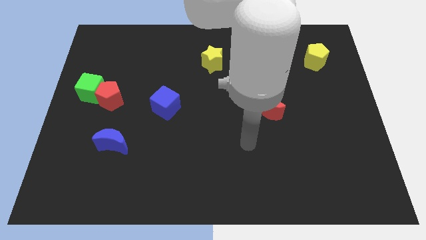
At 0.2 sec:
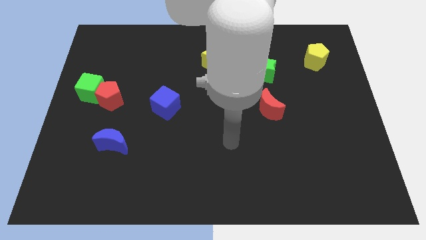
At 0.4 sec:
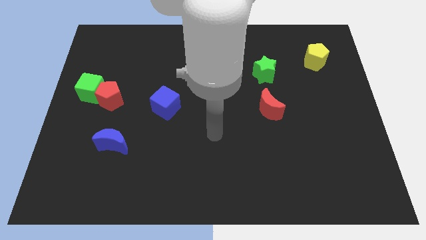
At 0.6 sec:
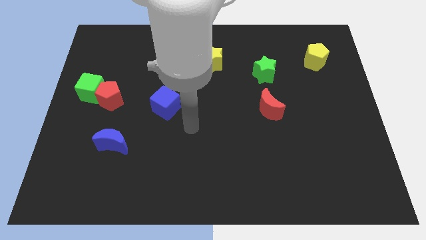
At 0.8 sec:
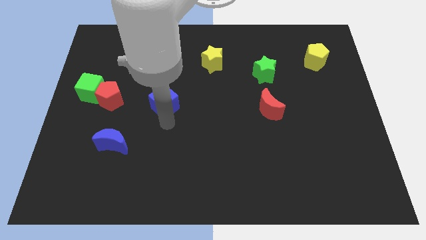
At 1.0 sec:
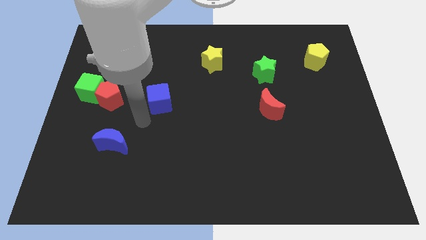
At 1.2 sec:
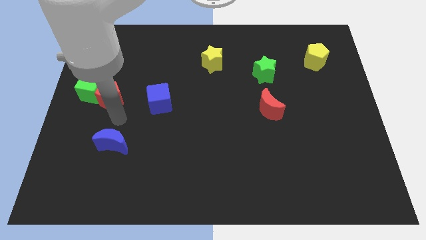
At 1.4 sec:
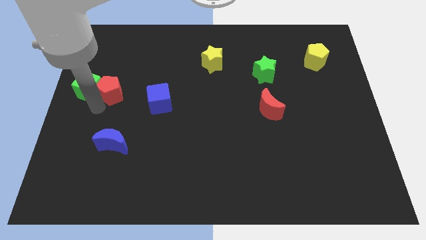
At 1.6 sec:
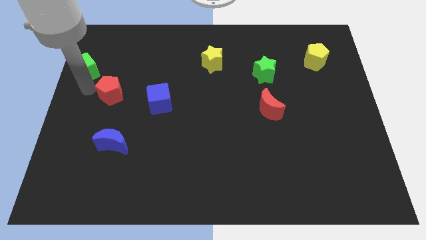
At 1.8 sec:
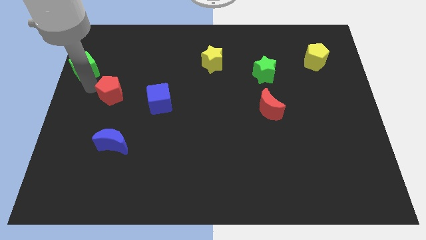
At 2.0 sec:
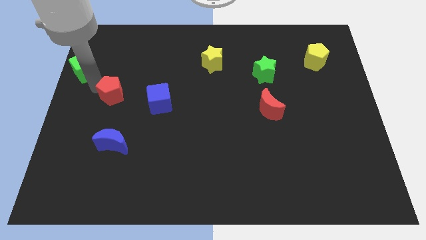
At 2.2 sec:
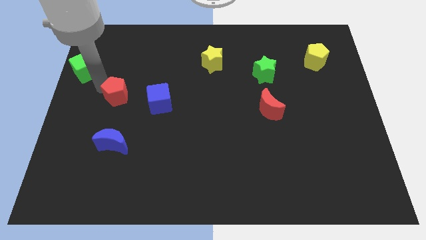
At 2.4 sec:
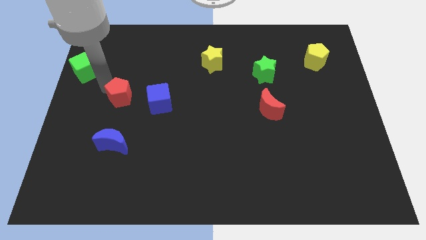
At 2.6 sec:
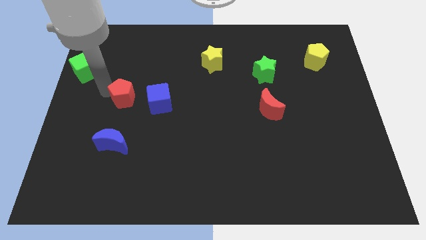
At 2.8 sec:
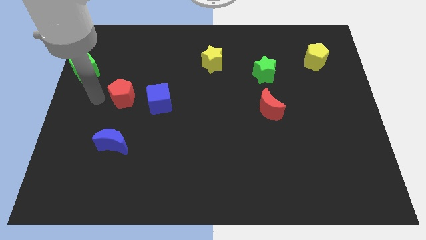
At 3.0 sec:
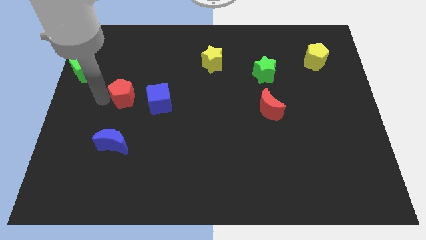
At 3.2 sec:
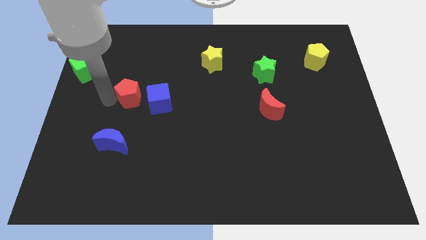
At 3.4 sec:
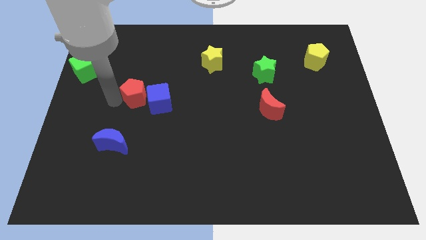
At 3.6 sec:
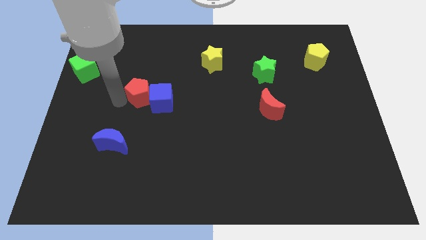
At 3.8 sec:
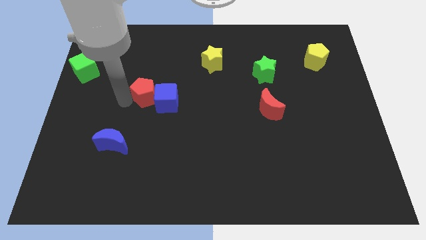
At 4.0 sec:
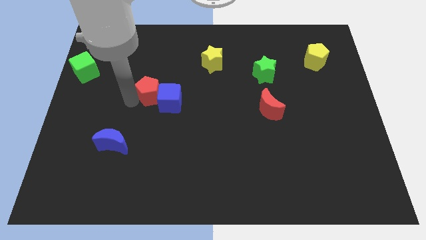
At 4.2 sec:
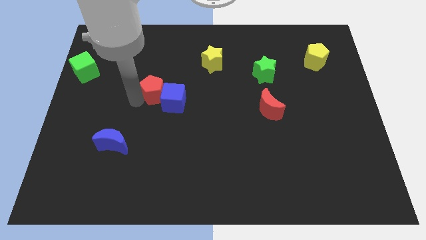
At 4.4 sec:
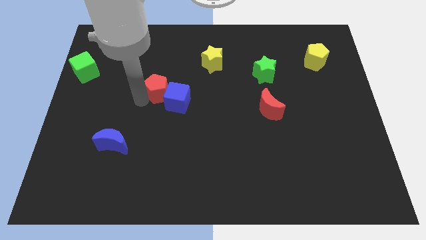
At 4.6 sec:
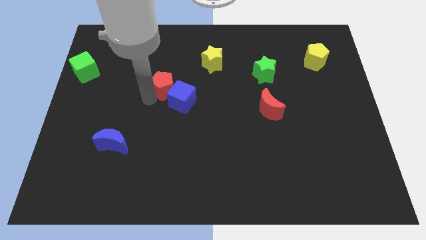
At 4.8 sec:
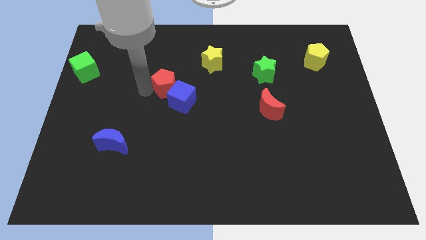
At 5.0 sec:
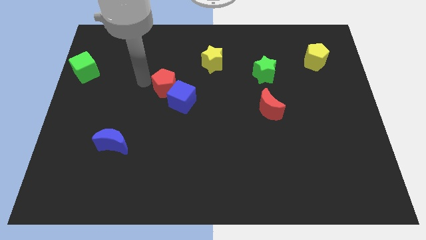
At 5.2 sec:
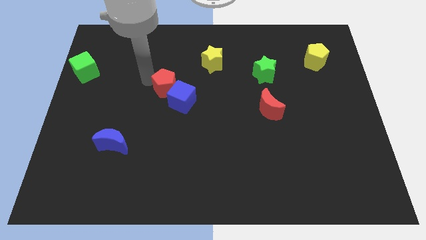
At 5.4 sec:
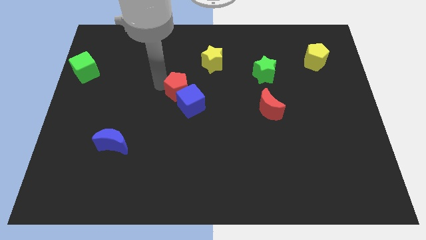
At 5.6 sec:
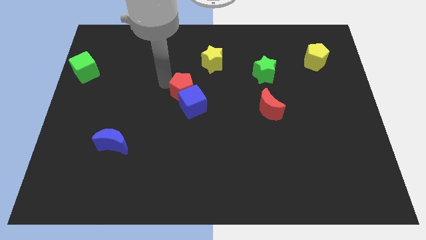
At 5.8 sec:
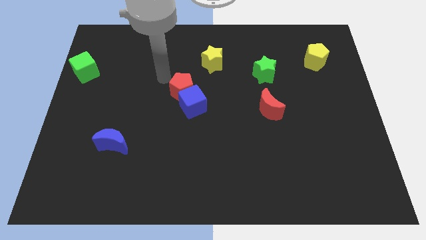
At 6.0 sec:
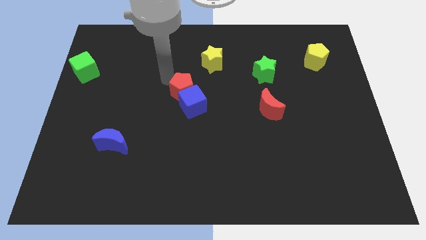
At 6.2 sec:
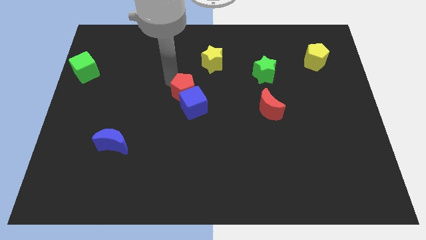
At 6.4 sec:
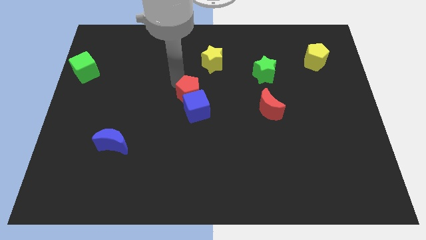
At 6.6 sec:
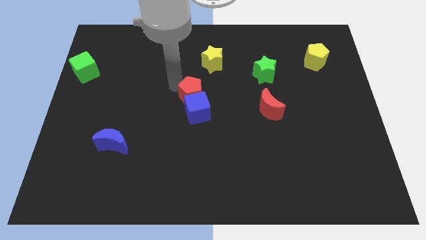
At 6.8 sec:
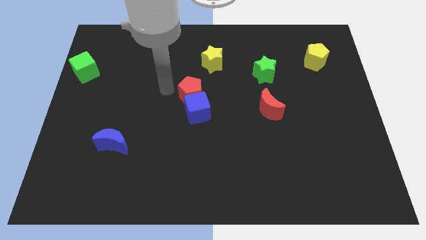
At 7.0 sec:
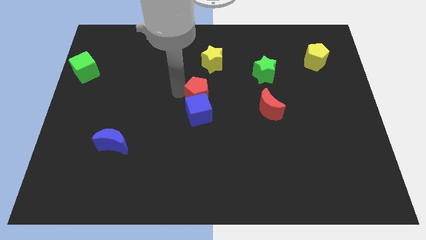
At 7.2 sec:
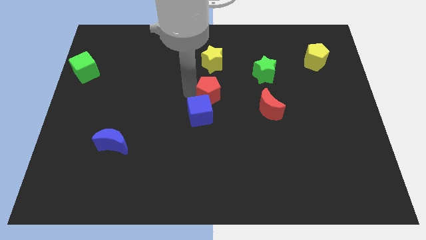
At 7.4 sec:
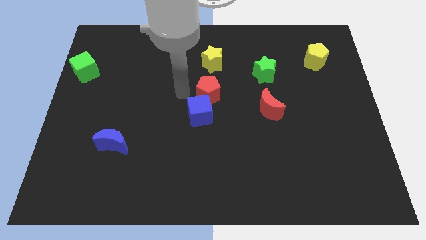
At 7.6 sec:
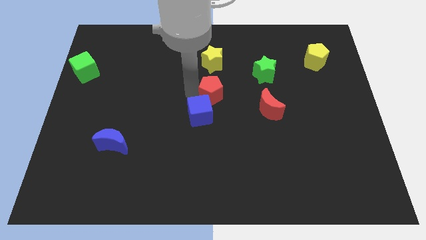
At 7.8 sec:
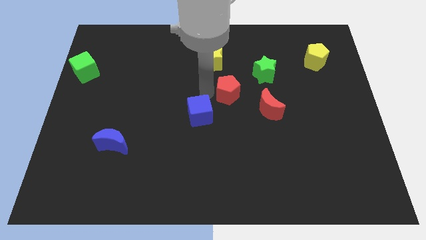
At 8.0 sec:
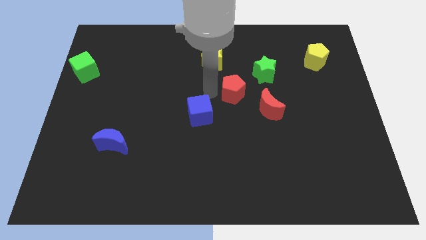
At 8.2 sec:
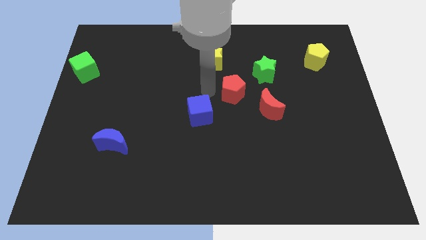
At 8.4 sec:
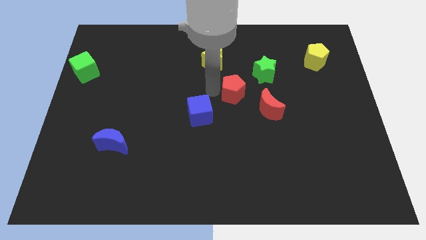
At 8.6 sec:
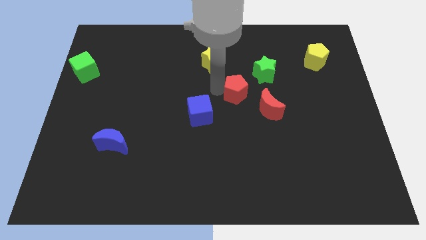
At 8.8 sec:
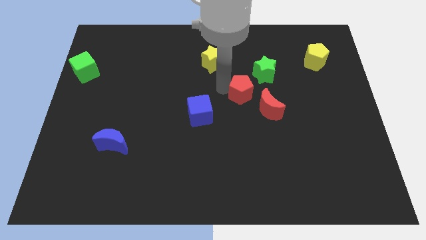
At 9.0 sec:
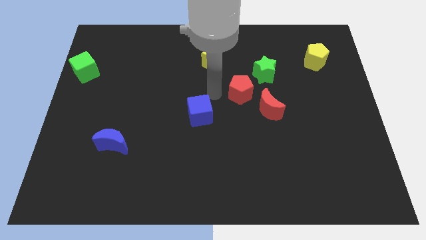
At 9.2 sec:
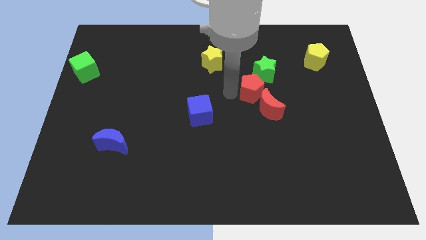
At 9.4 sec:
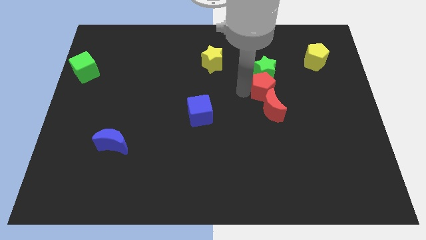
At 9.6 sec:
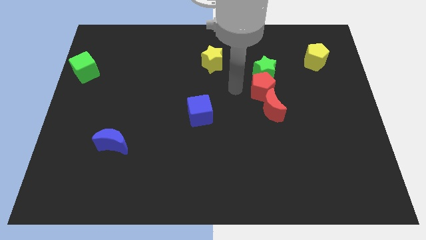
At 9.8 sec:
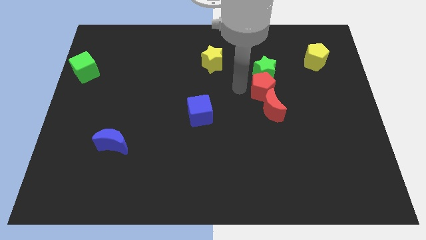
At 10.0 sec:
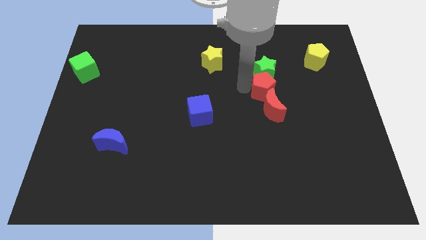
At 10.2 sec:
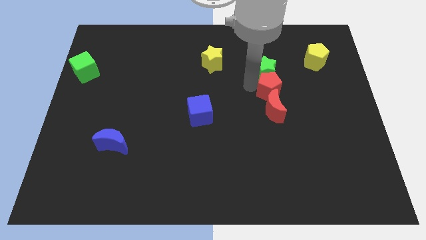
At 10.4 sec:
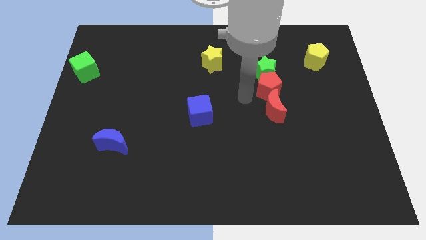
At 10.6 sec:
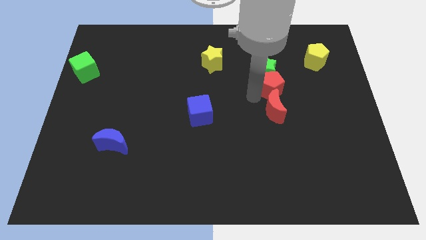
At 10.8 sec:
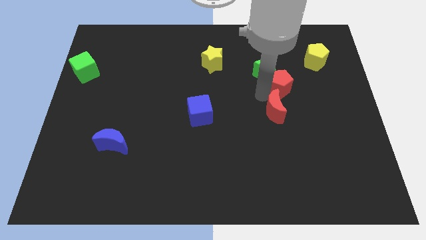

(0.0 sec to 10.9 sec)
move the red pentagon to the right of the green star

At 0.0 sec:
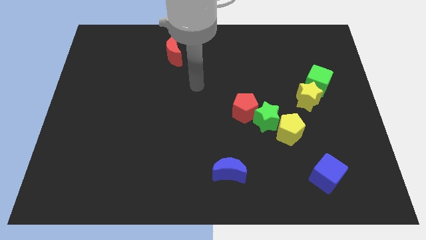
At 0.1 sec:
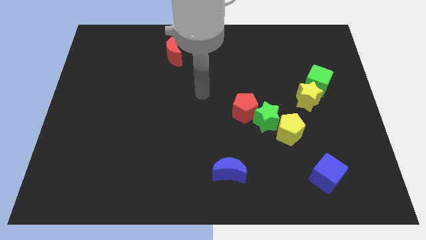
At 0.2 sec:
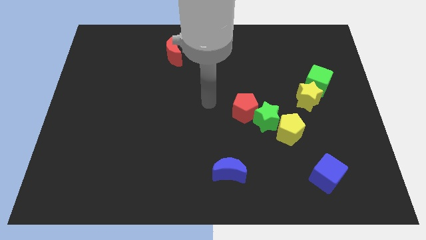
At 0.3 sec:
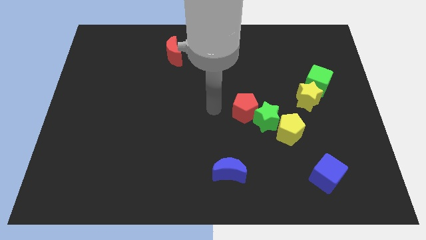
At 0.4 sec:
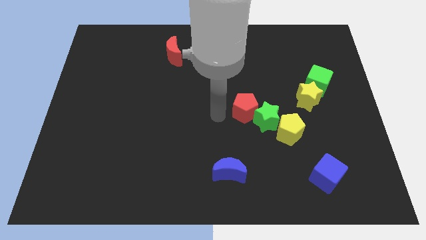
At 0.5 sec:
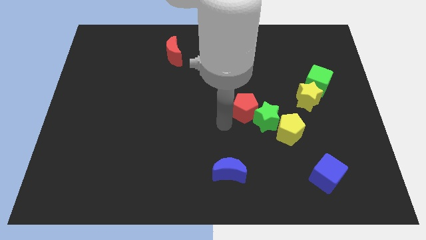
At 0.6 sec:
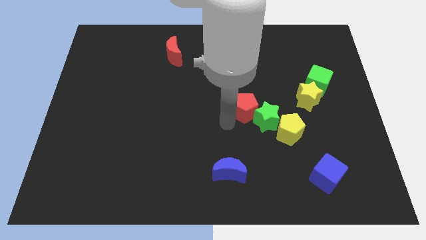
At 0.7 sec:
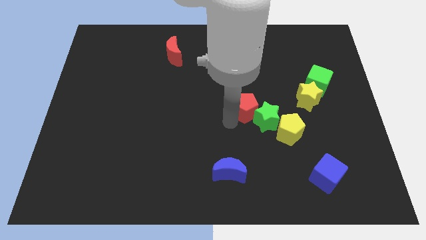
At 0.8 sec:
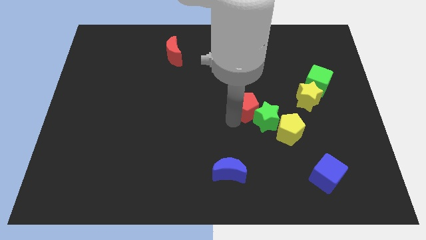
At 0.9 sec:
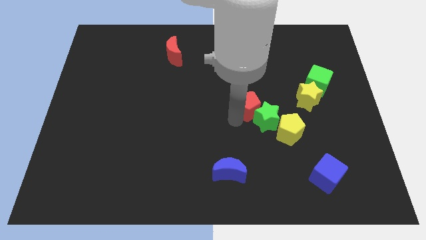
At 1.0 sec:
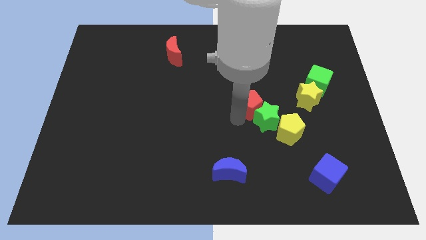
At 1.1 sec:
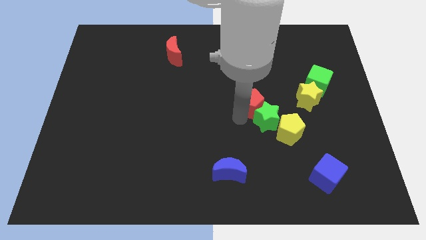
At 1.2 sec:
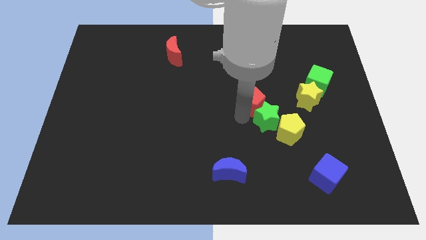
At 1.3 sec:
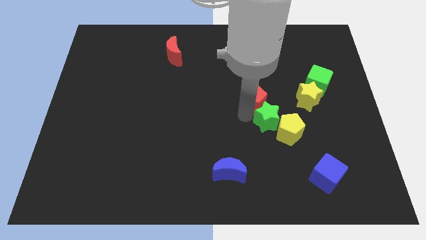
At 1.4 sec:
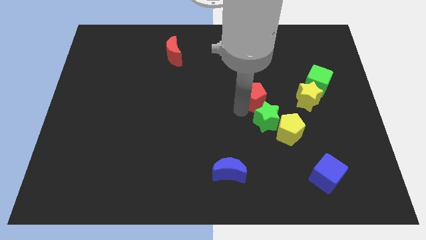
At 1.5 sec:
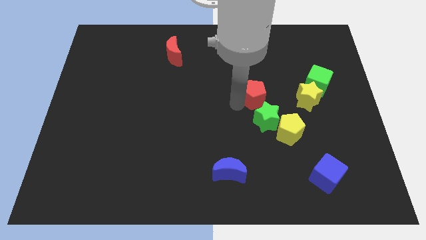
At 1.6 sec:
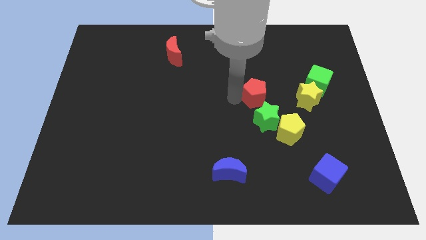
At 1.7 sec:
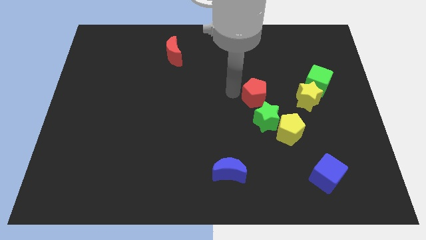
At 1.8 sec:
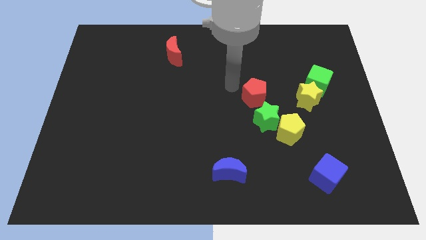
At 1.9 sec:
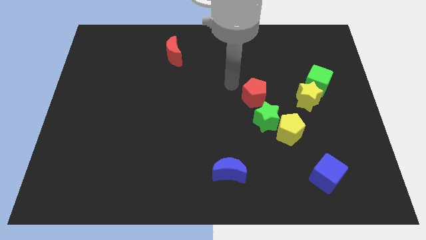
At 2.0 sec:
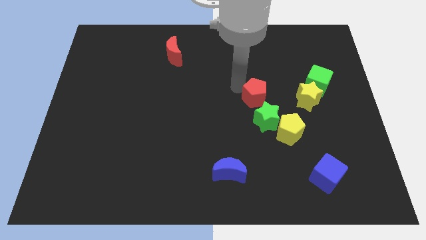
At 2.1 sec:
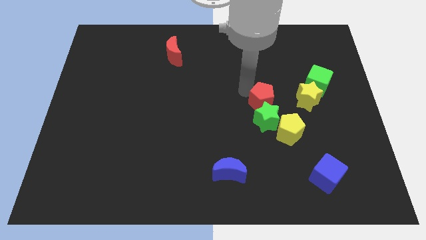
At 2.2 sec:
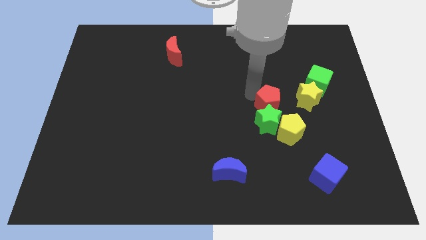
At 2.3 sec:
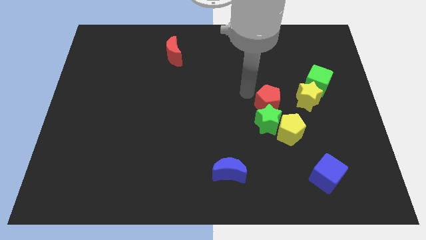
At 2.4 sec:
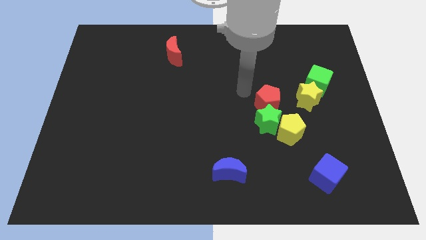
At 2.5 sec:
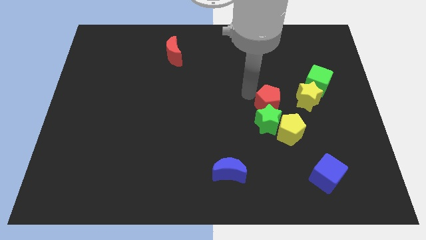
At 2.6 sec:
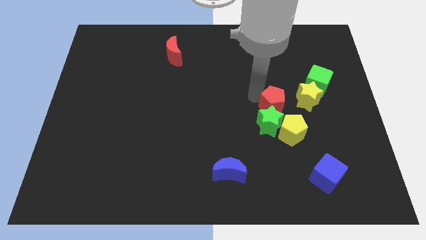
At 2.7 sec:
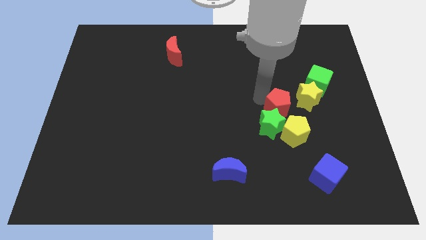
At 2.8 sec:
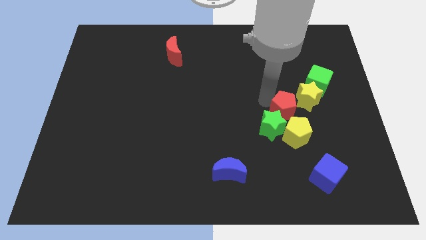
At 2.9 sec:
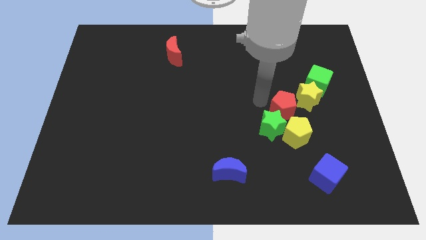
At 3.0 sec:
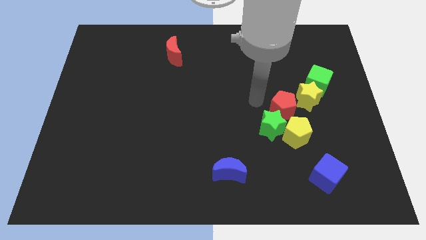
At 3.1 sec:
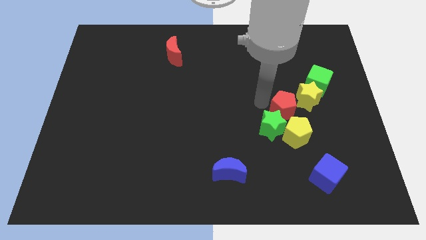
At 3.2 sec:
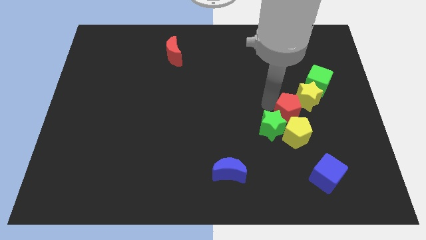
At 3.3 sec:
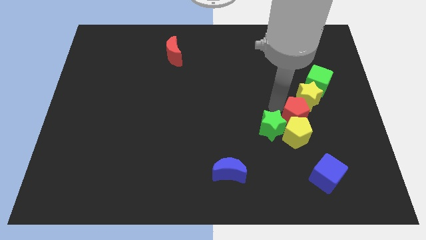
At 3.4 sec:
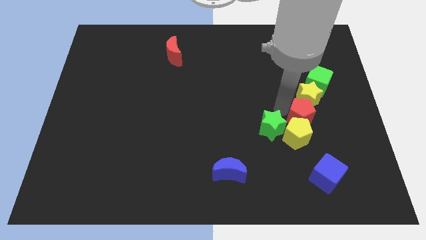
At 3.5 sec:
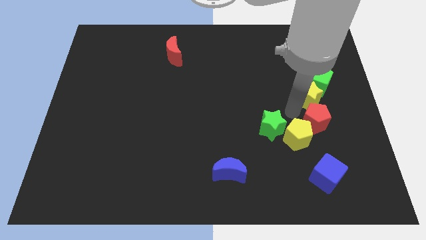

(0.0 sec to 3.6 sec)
slide the red pentagon to the right of the yellow pentagon
